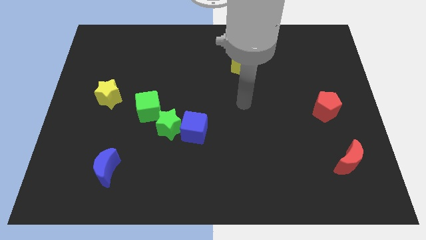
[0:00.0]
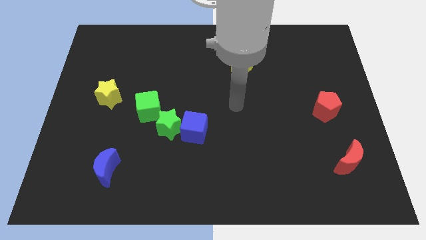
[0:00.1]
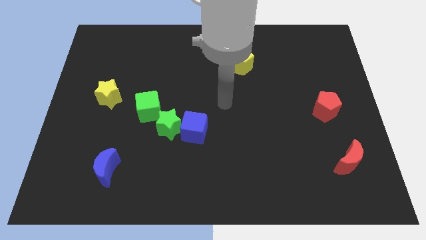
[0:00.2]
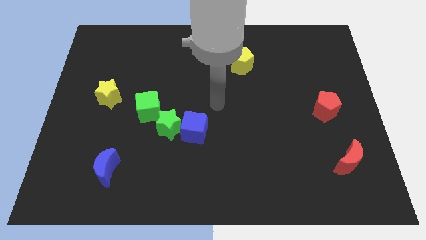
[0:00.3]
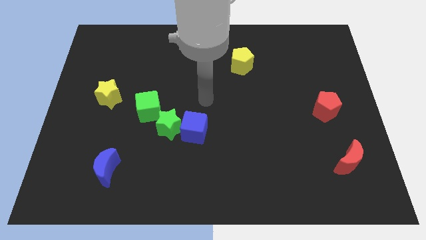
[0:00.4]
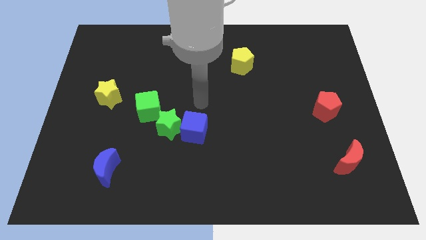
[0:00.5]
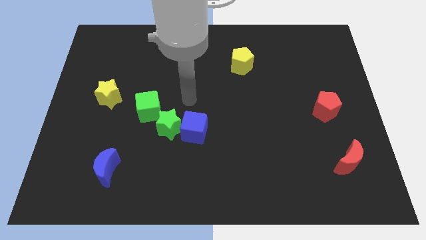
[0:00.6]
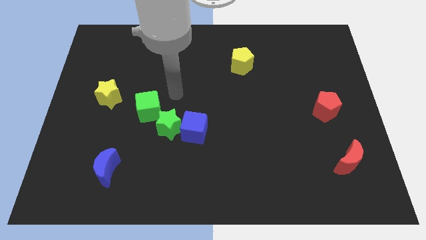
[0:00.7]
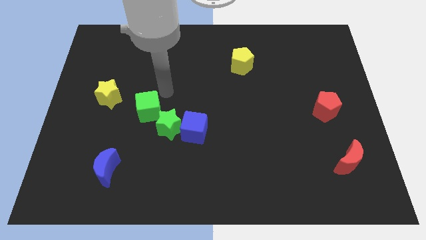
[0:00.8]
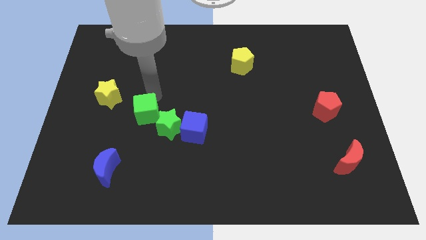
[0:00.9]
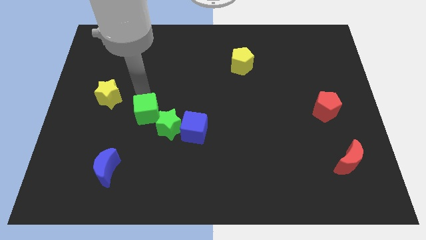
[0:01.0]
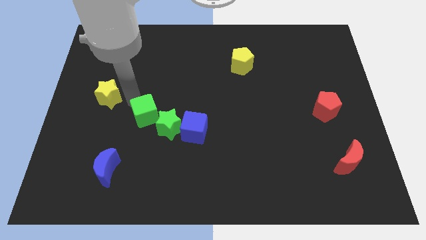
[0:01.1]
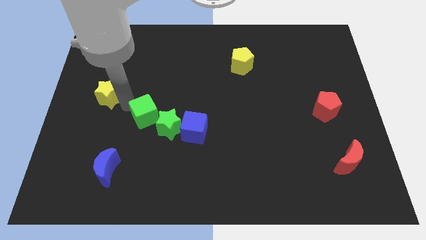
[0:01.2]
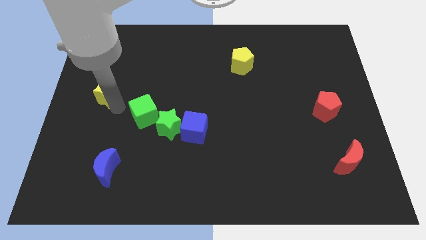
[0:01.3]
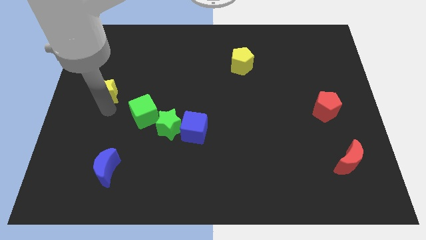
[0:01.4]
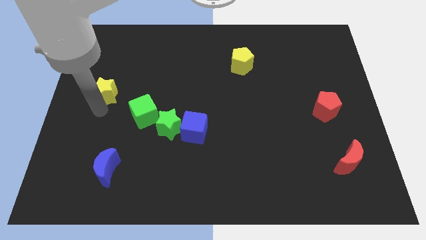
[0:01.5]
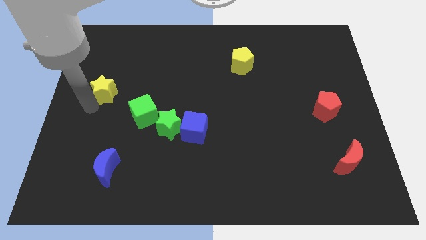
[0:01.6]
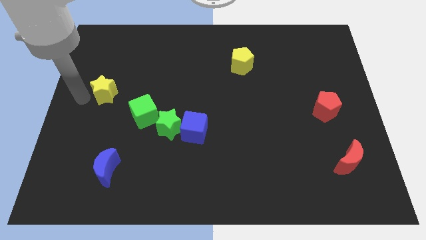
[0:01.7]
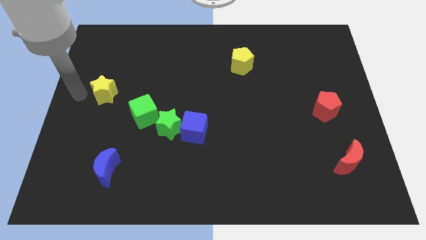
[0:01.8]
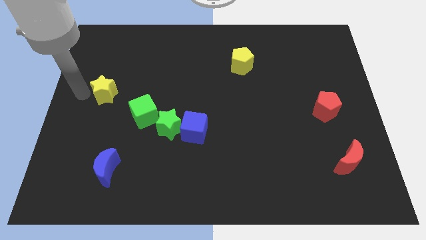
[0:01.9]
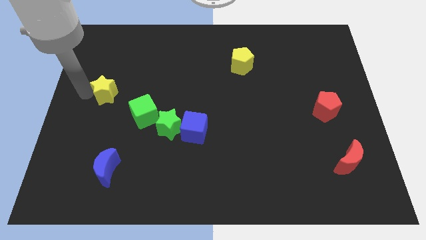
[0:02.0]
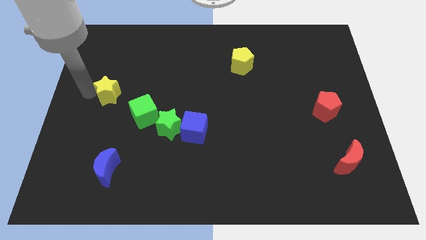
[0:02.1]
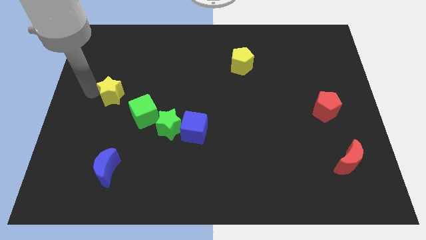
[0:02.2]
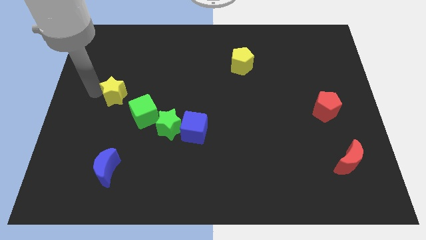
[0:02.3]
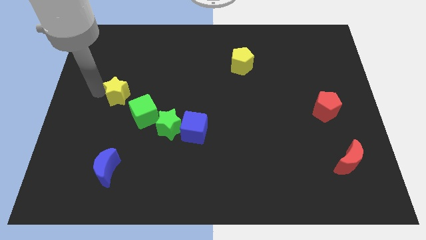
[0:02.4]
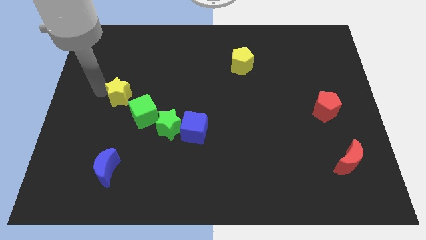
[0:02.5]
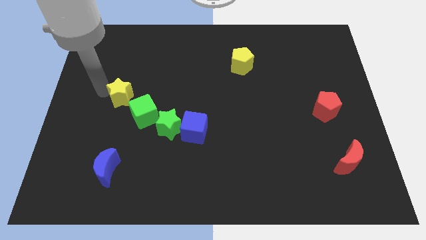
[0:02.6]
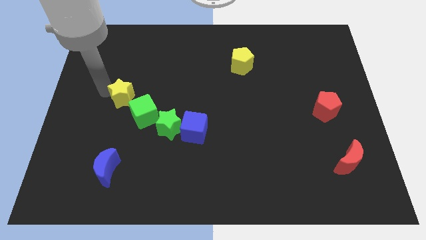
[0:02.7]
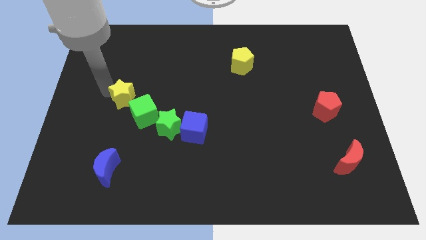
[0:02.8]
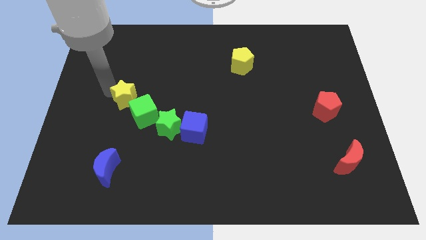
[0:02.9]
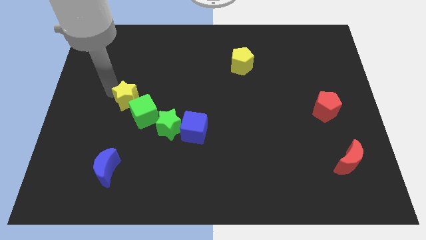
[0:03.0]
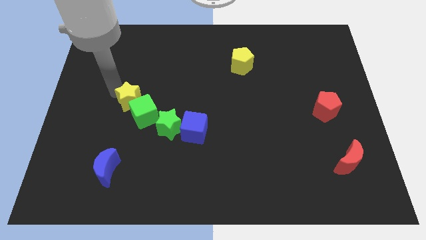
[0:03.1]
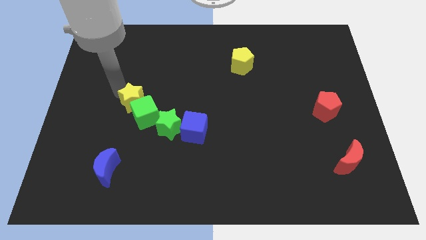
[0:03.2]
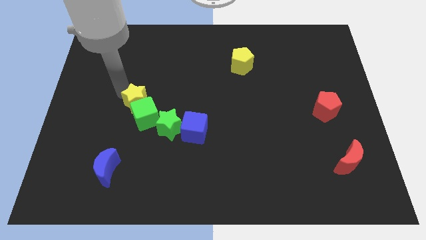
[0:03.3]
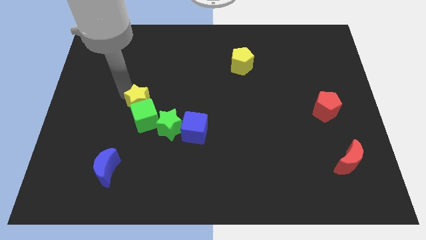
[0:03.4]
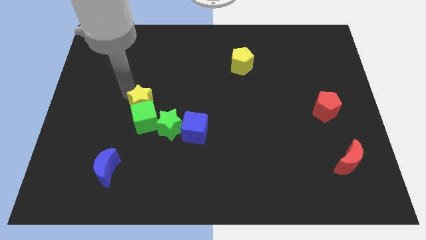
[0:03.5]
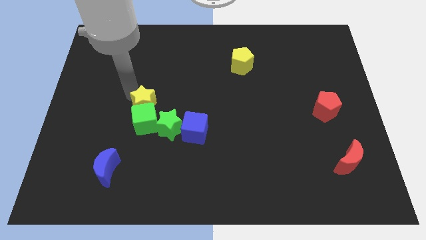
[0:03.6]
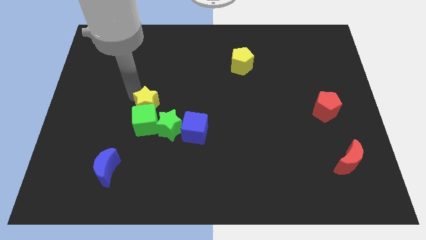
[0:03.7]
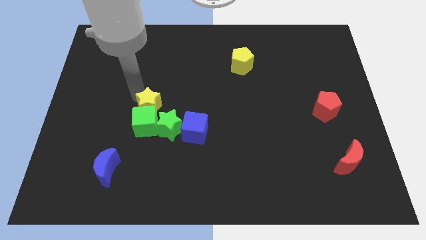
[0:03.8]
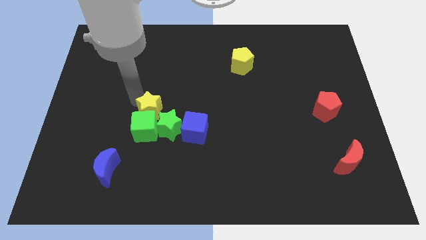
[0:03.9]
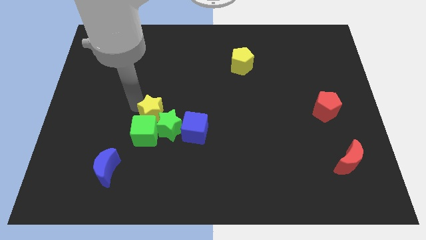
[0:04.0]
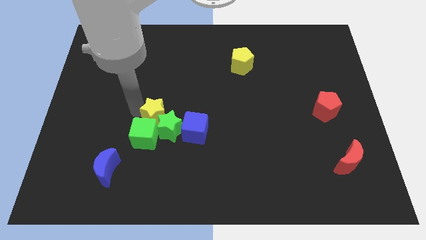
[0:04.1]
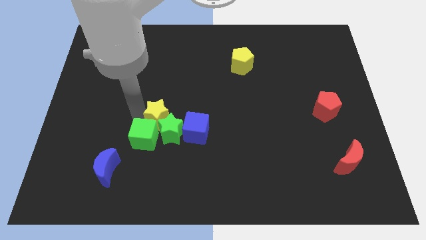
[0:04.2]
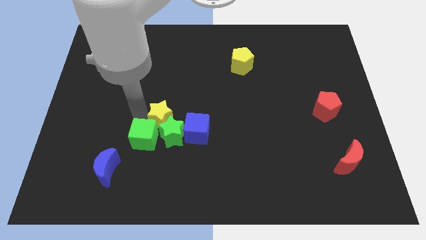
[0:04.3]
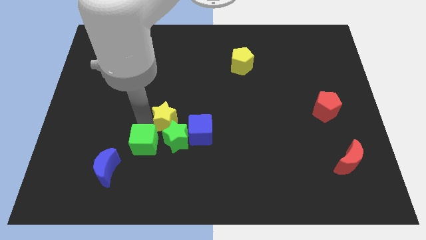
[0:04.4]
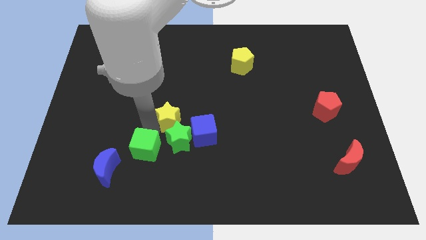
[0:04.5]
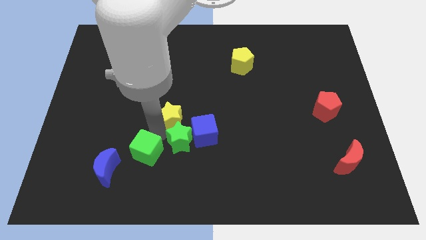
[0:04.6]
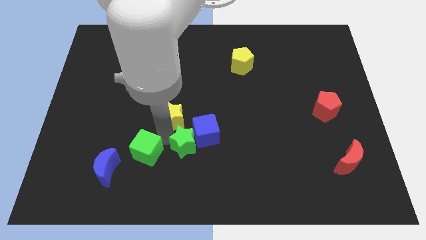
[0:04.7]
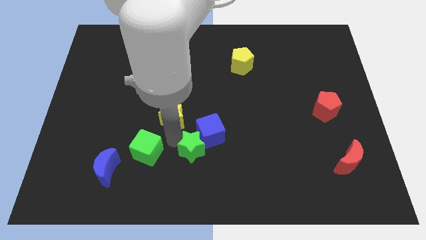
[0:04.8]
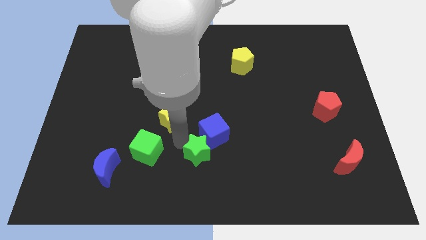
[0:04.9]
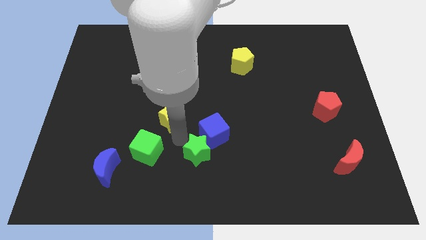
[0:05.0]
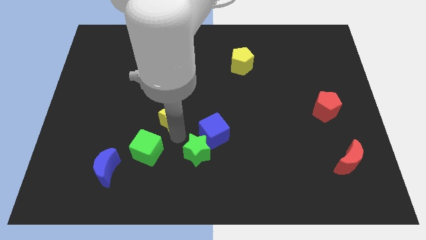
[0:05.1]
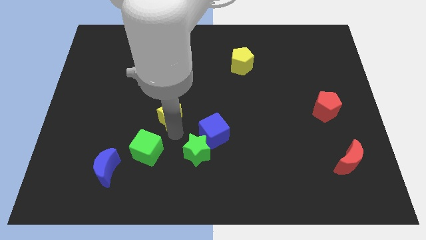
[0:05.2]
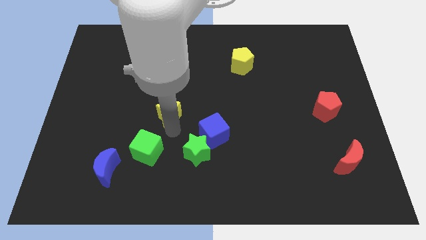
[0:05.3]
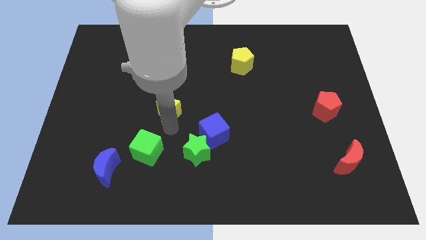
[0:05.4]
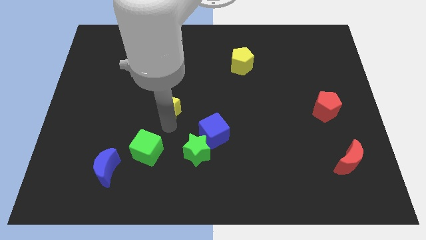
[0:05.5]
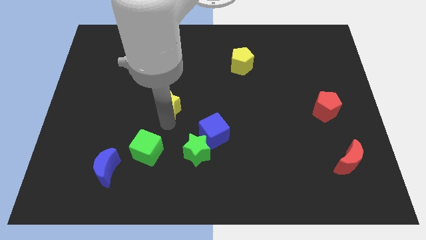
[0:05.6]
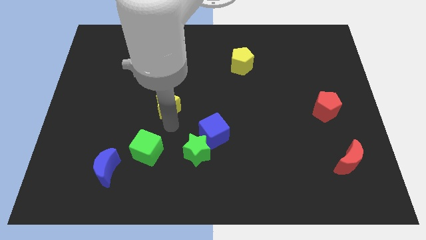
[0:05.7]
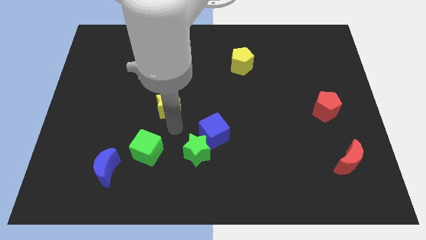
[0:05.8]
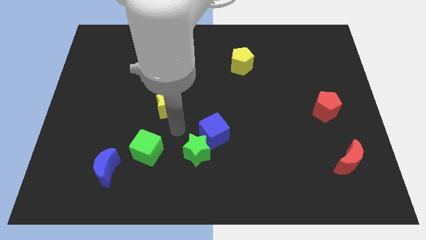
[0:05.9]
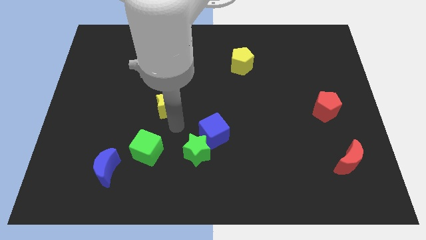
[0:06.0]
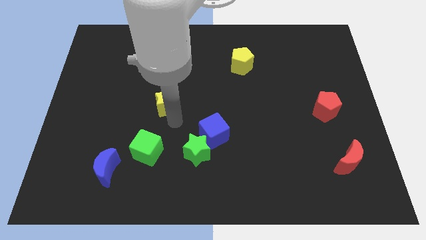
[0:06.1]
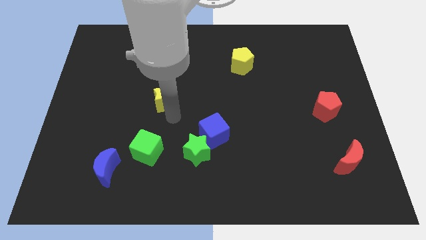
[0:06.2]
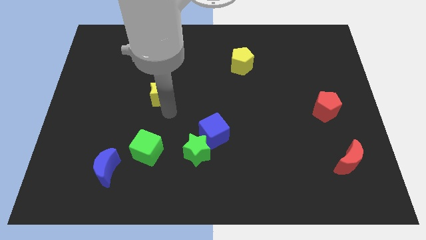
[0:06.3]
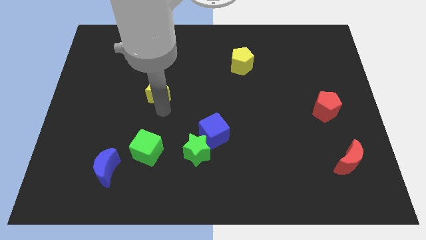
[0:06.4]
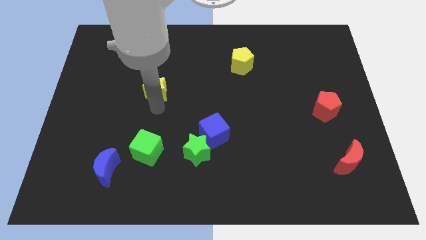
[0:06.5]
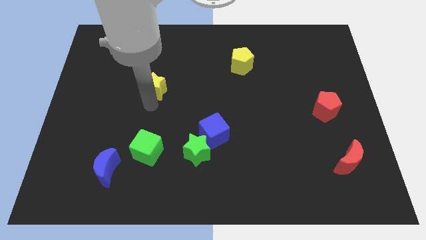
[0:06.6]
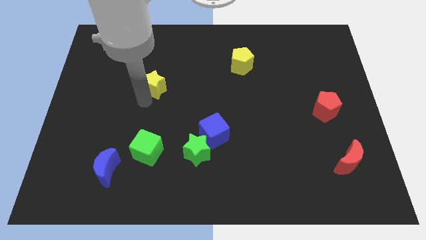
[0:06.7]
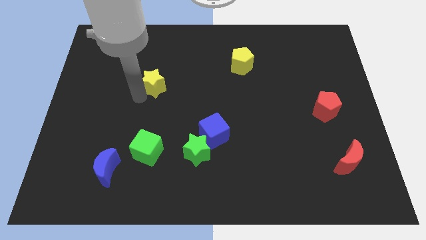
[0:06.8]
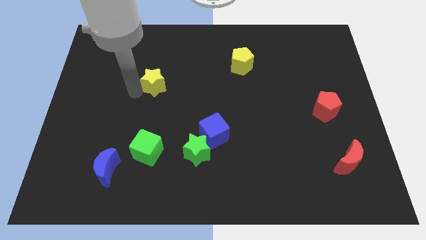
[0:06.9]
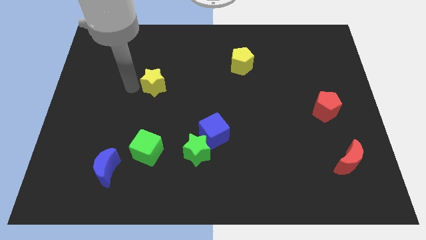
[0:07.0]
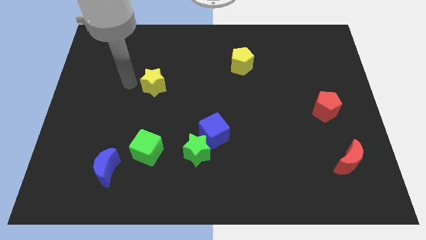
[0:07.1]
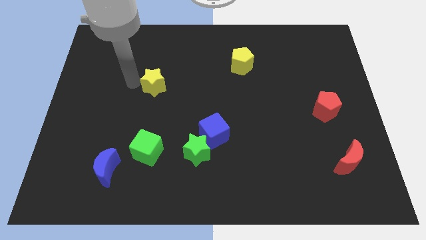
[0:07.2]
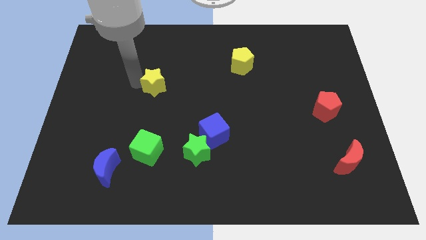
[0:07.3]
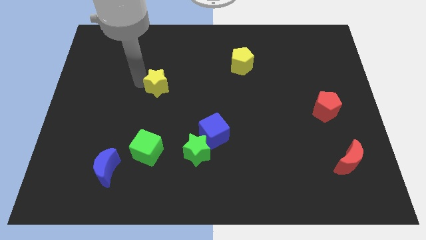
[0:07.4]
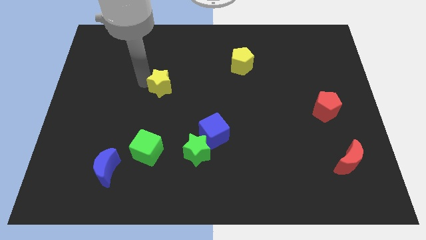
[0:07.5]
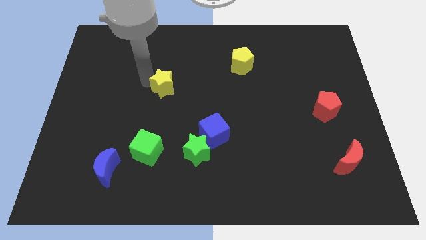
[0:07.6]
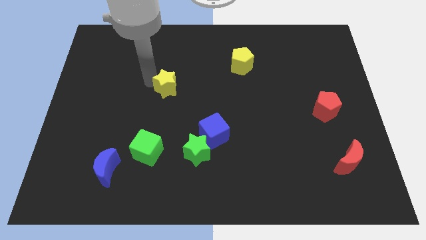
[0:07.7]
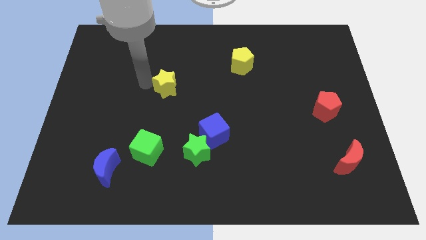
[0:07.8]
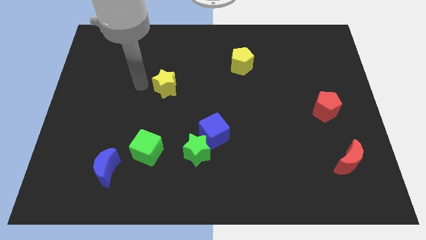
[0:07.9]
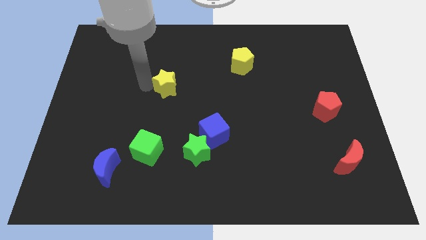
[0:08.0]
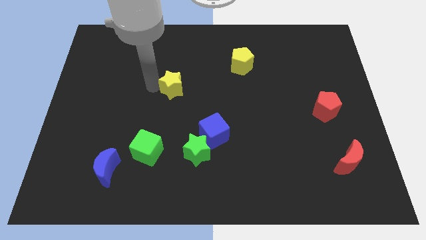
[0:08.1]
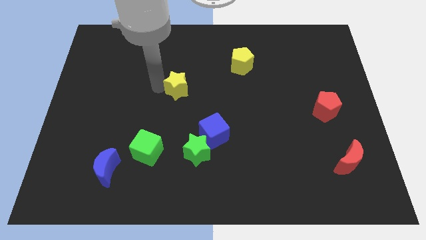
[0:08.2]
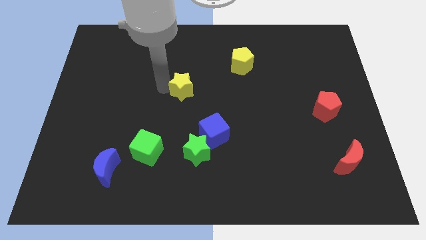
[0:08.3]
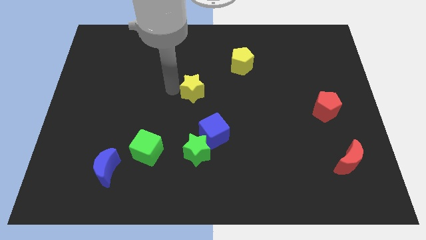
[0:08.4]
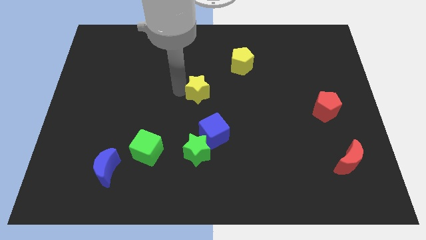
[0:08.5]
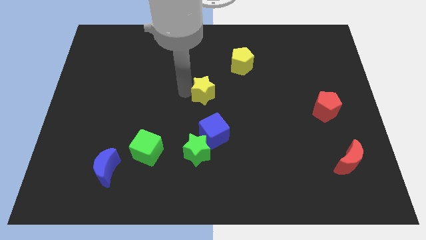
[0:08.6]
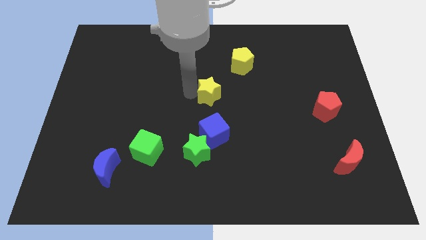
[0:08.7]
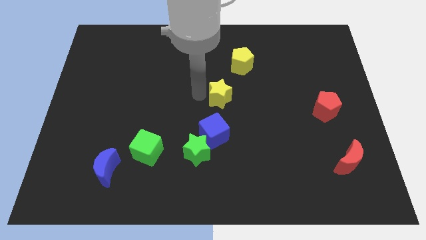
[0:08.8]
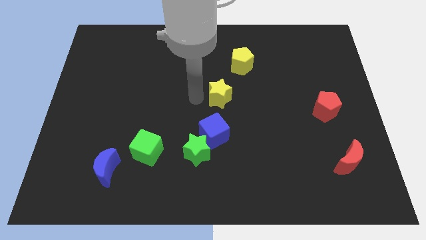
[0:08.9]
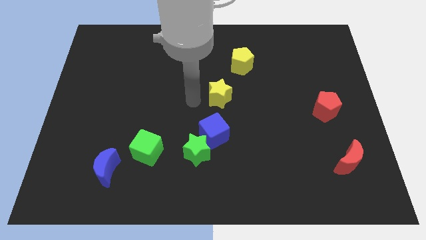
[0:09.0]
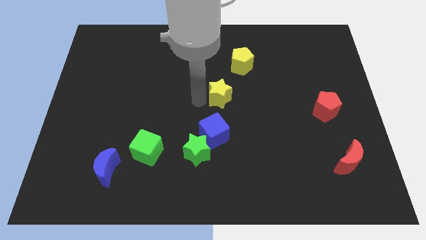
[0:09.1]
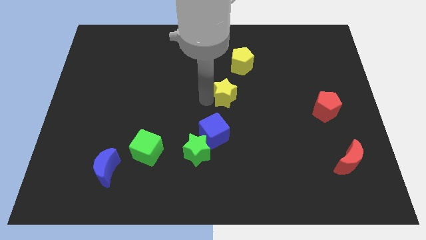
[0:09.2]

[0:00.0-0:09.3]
move the yellow star to the bottom side of the yellow pentagon
